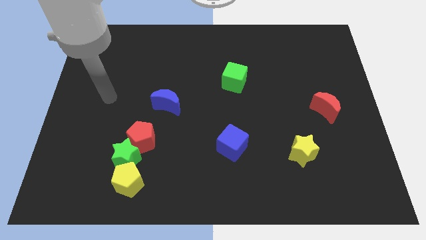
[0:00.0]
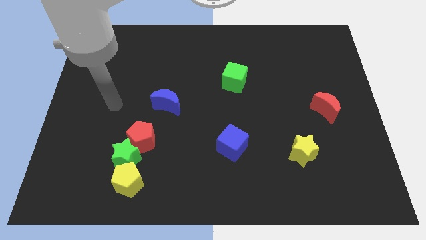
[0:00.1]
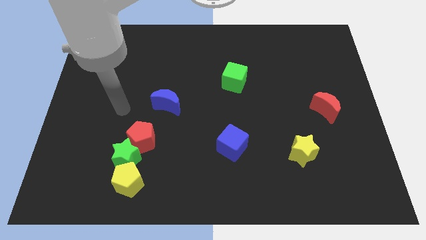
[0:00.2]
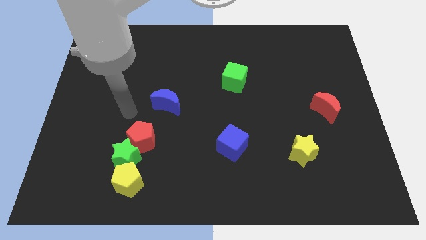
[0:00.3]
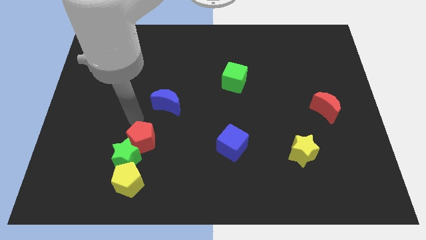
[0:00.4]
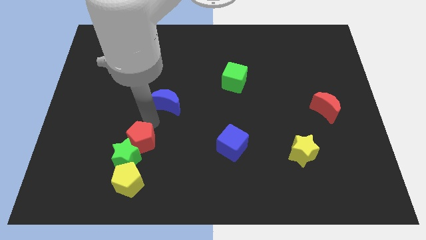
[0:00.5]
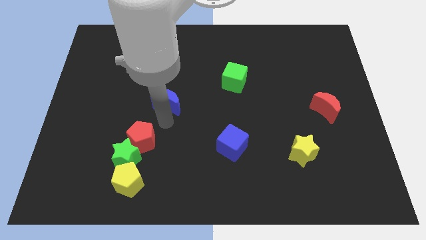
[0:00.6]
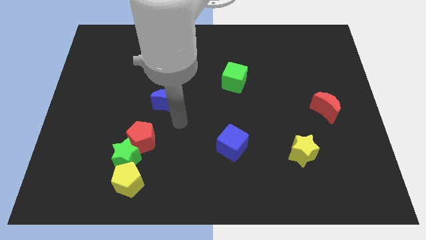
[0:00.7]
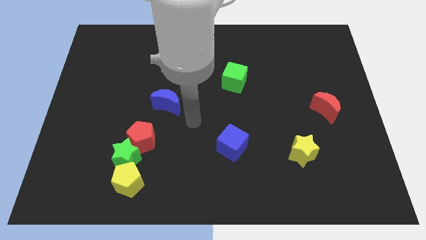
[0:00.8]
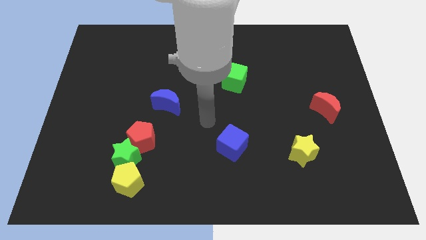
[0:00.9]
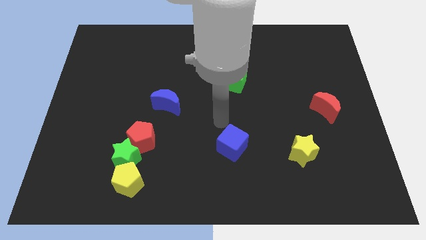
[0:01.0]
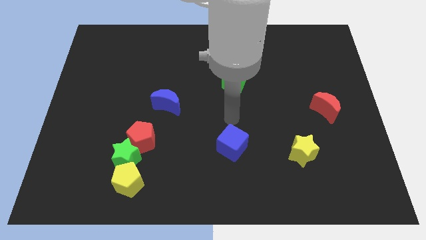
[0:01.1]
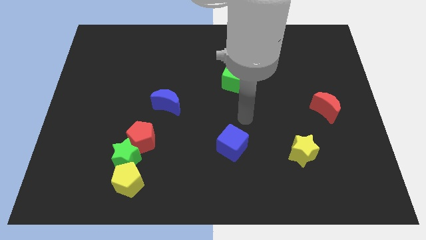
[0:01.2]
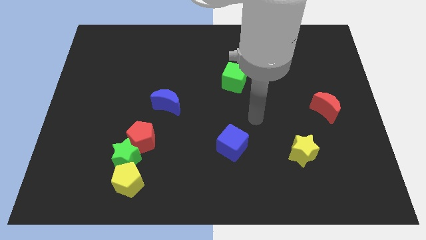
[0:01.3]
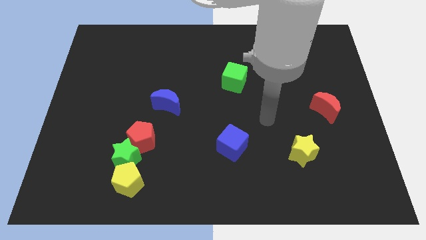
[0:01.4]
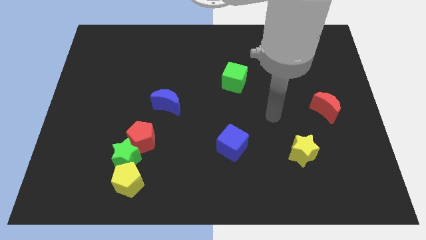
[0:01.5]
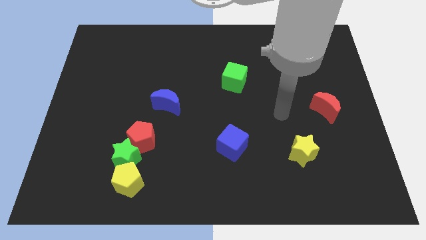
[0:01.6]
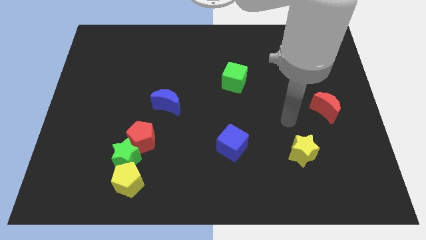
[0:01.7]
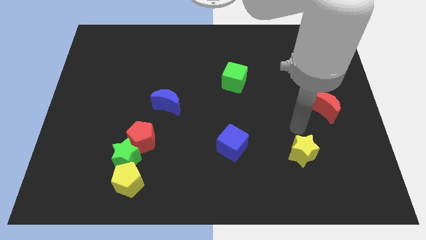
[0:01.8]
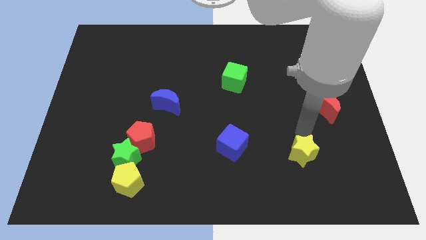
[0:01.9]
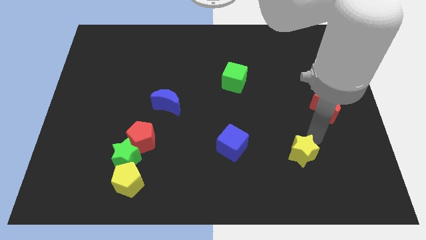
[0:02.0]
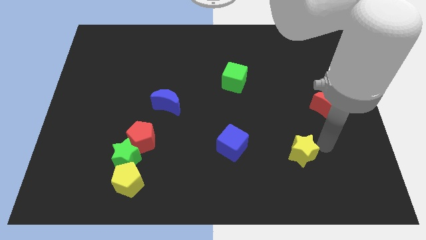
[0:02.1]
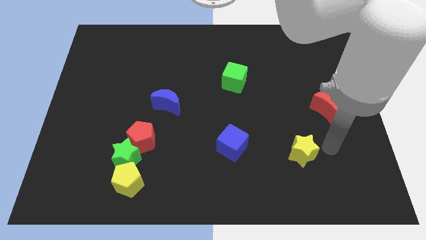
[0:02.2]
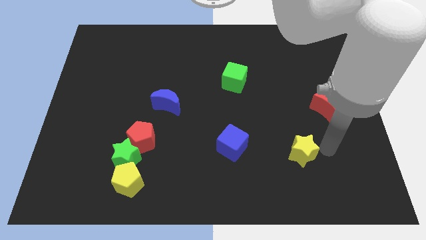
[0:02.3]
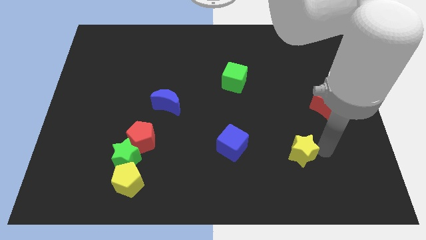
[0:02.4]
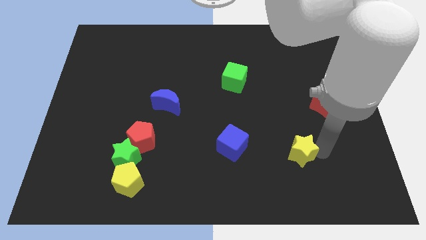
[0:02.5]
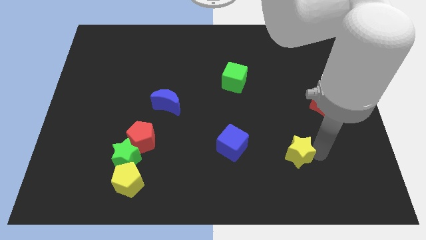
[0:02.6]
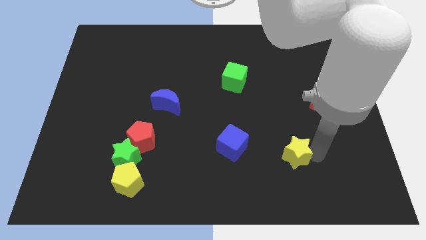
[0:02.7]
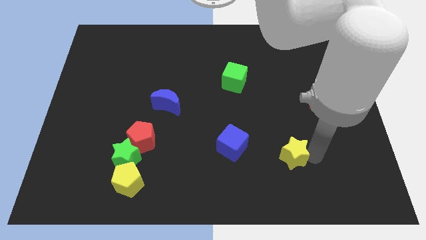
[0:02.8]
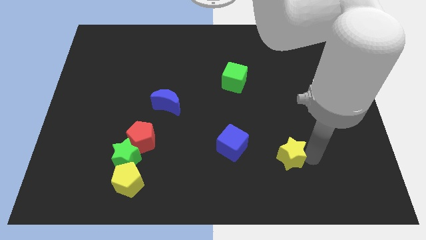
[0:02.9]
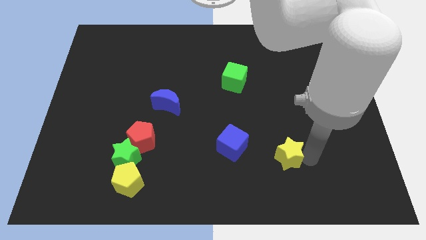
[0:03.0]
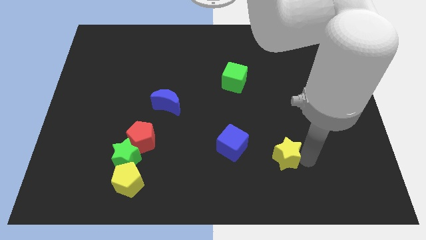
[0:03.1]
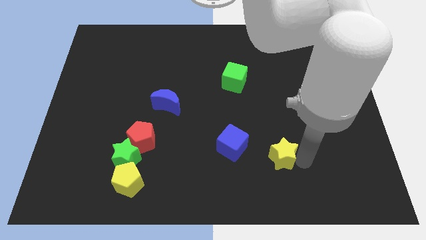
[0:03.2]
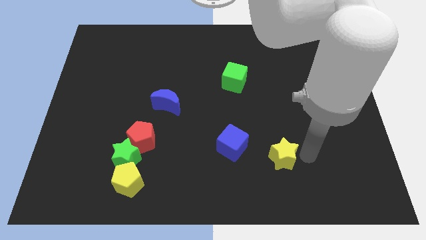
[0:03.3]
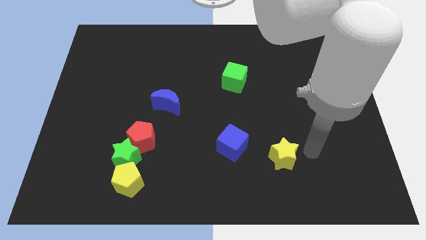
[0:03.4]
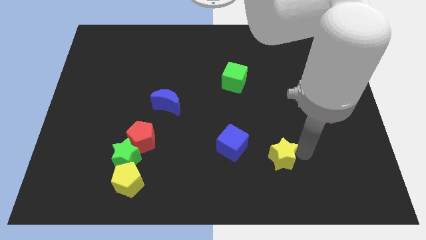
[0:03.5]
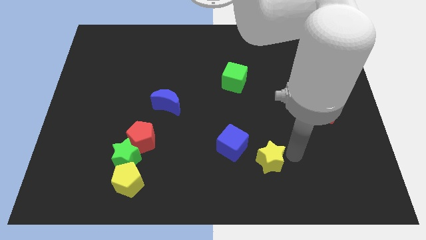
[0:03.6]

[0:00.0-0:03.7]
move the yellow star slightly left

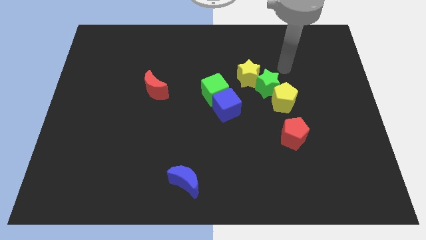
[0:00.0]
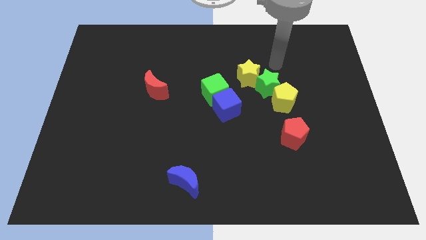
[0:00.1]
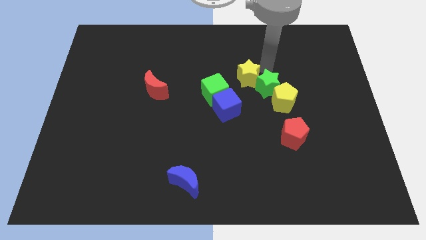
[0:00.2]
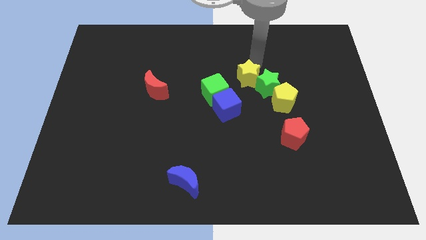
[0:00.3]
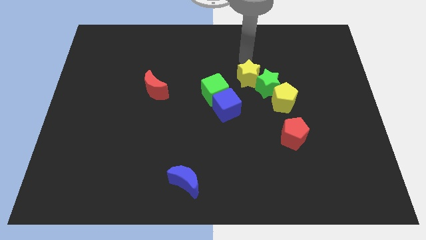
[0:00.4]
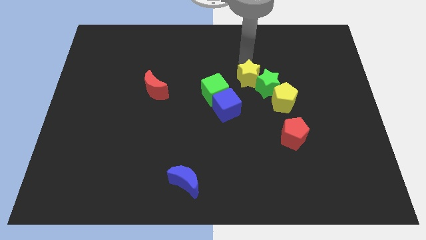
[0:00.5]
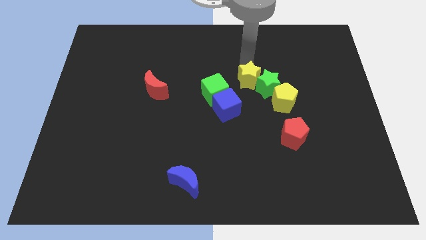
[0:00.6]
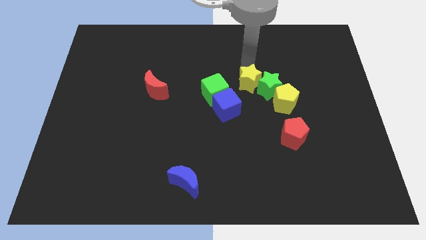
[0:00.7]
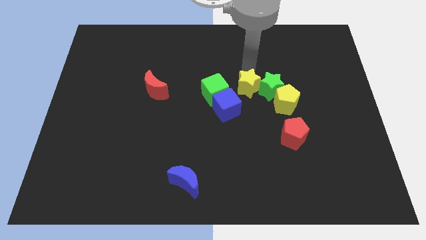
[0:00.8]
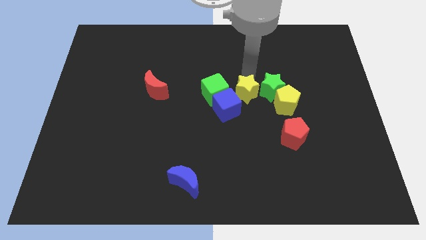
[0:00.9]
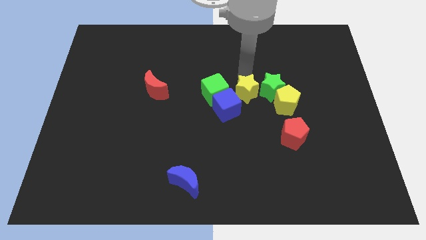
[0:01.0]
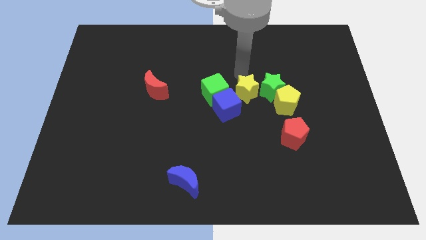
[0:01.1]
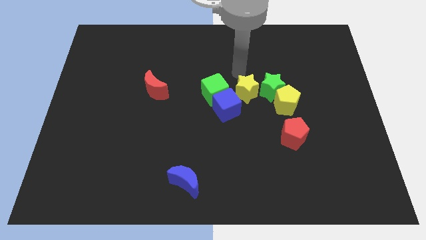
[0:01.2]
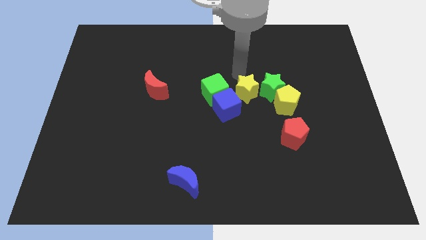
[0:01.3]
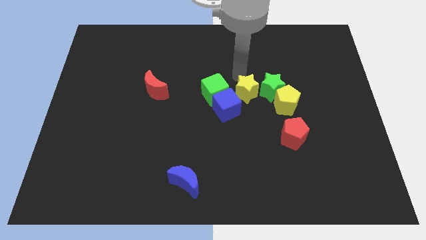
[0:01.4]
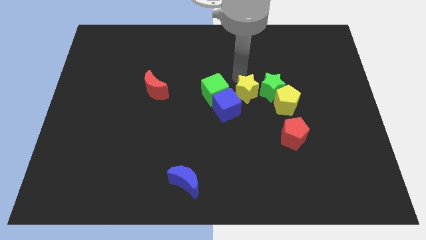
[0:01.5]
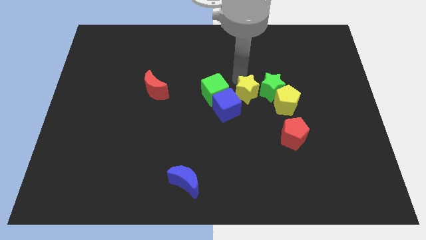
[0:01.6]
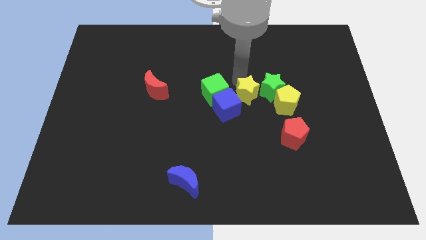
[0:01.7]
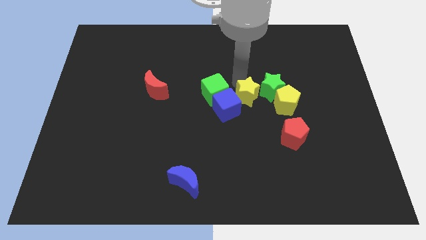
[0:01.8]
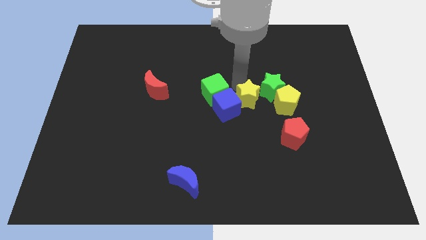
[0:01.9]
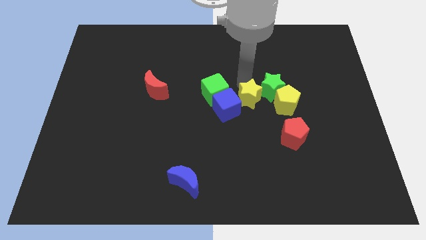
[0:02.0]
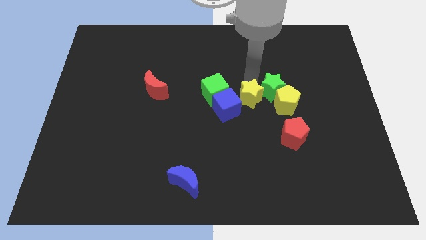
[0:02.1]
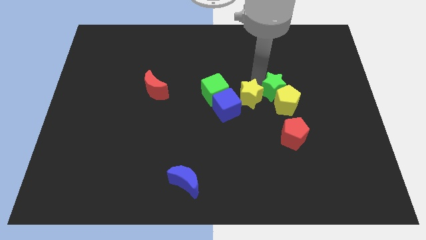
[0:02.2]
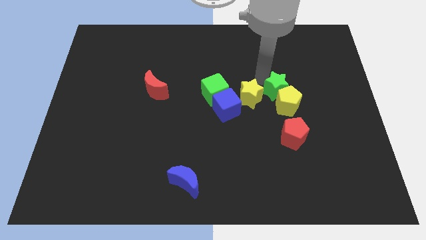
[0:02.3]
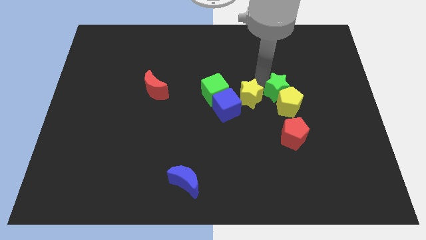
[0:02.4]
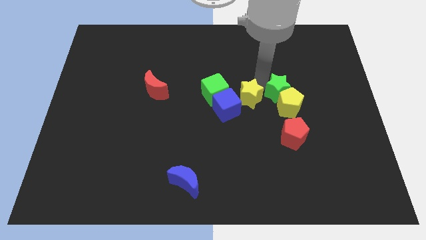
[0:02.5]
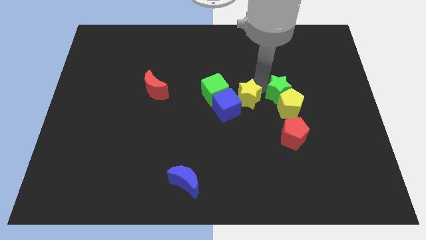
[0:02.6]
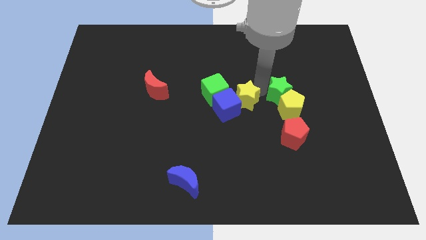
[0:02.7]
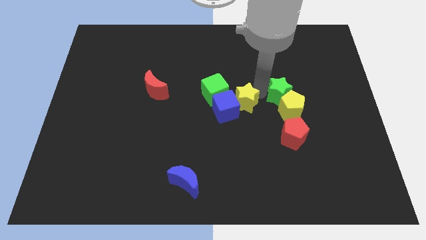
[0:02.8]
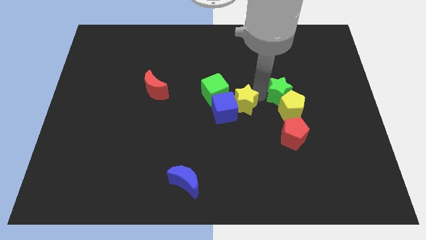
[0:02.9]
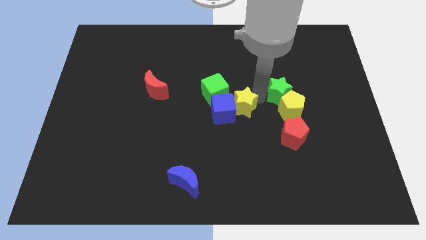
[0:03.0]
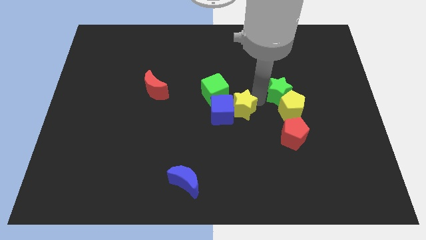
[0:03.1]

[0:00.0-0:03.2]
move the yellow star diagonally downwards and to the left a little bit

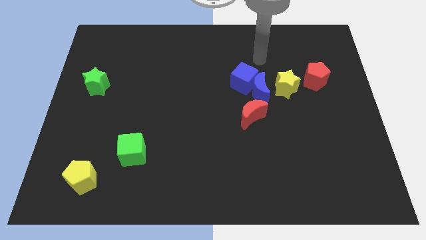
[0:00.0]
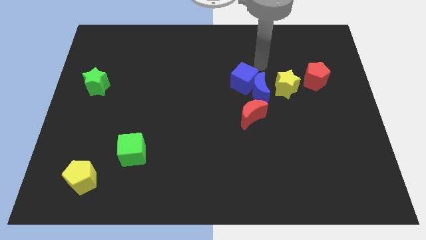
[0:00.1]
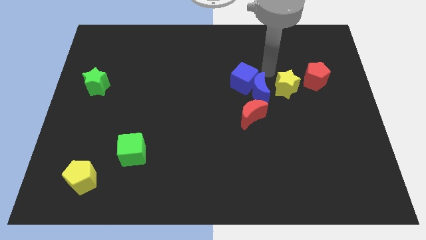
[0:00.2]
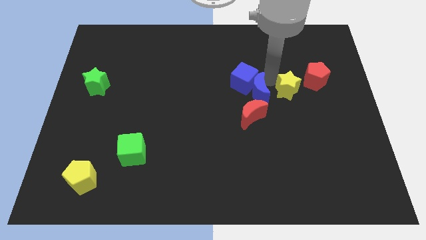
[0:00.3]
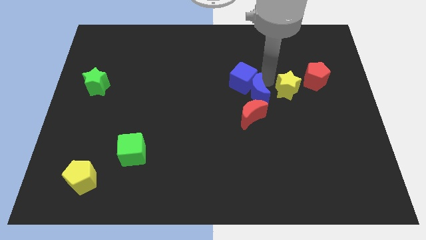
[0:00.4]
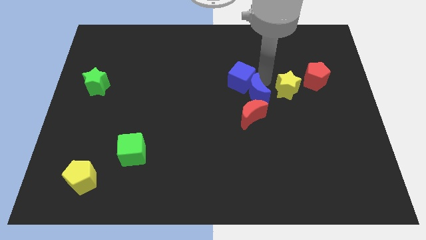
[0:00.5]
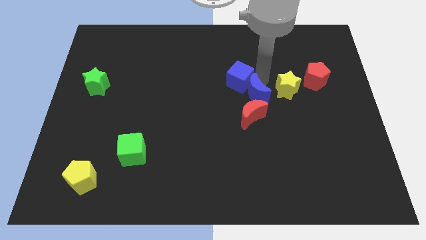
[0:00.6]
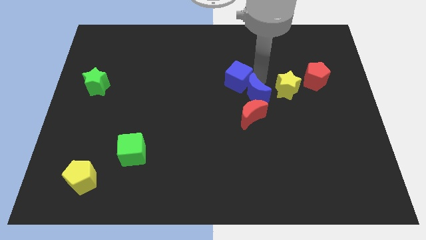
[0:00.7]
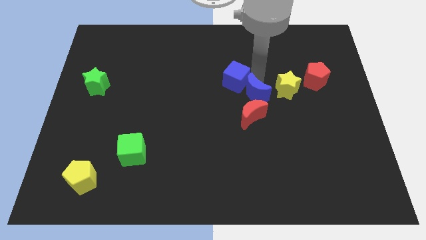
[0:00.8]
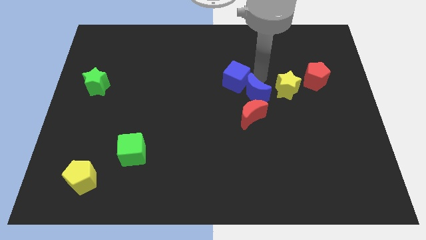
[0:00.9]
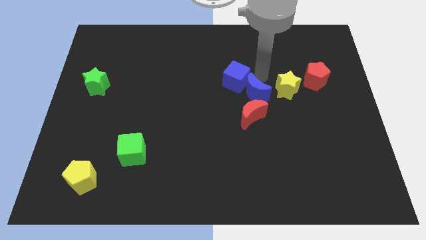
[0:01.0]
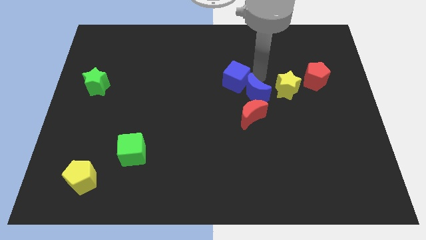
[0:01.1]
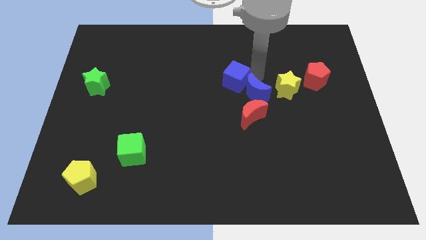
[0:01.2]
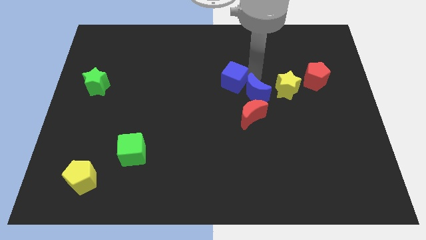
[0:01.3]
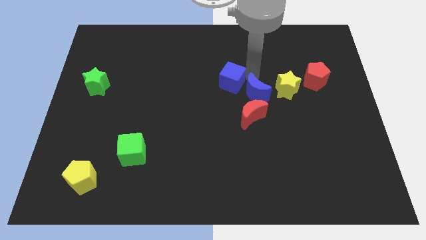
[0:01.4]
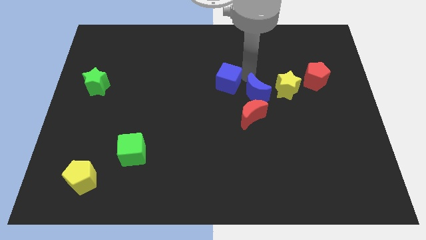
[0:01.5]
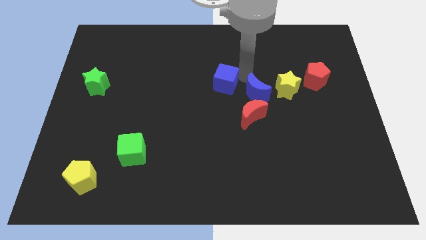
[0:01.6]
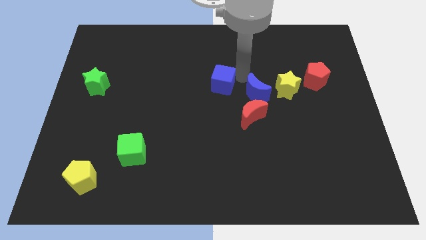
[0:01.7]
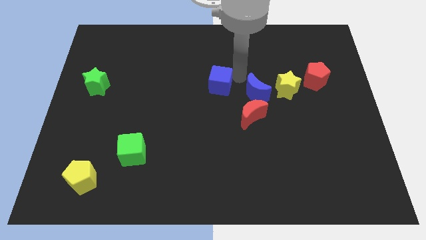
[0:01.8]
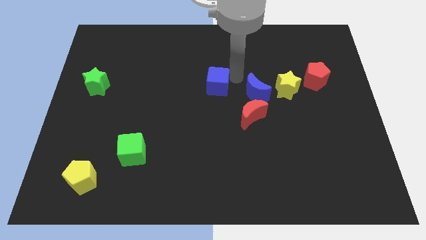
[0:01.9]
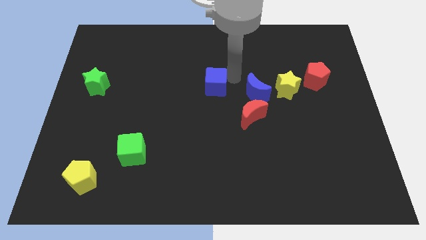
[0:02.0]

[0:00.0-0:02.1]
slightly slide the blue cube to the left
